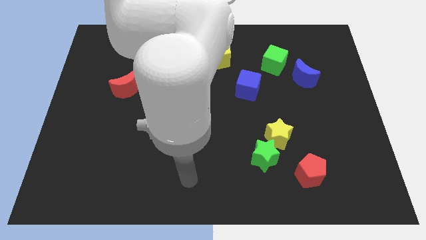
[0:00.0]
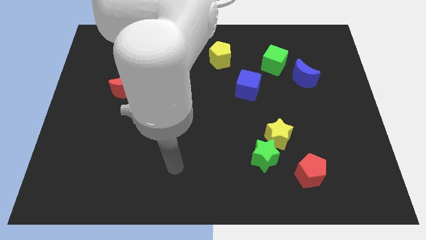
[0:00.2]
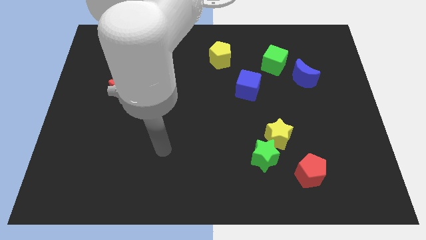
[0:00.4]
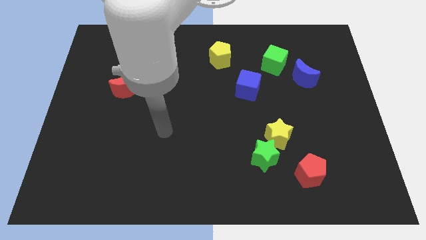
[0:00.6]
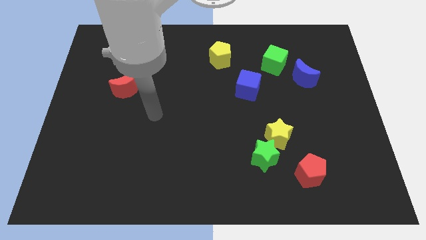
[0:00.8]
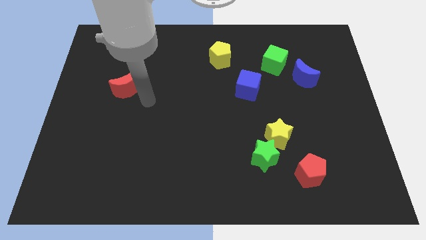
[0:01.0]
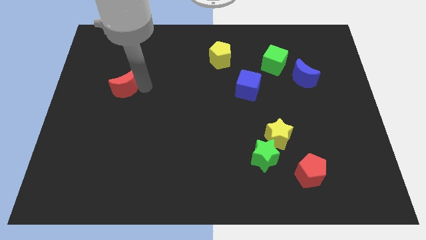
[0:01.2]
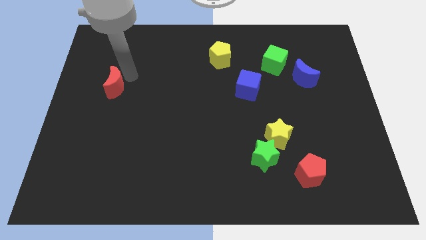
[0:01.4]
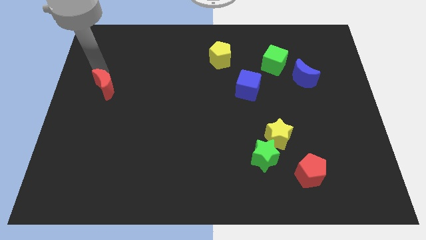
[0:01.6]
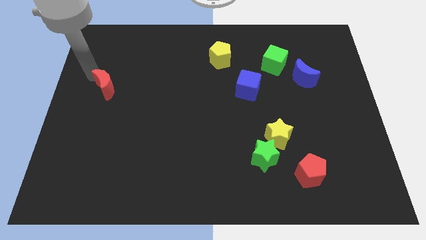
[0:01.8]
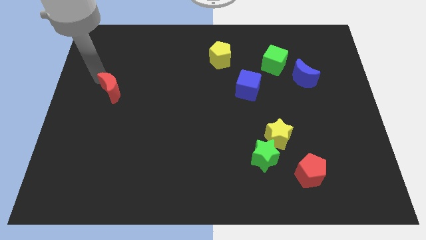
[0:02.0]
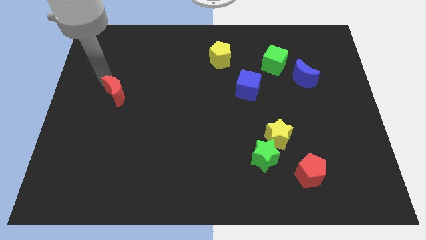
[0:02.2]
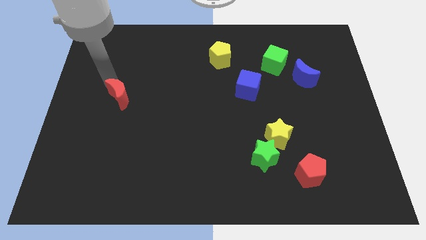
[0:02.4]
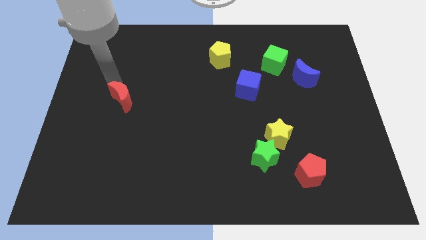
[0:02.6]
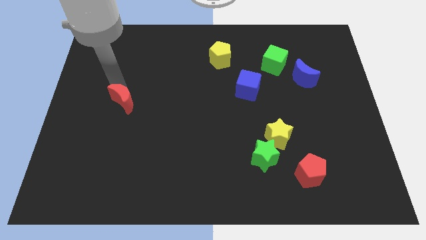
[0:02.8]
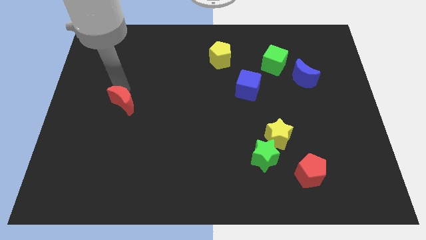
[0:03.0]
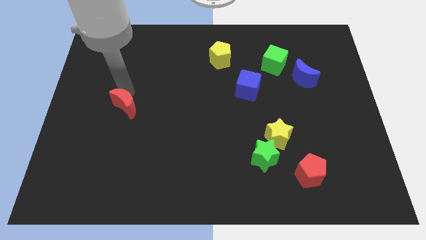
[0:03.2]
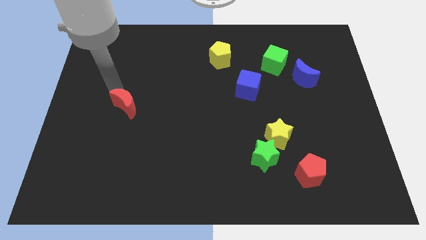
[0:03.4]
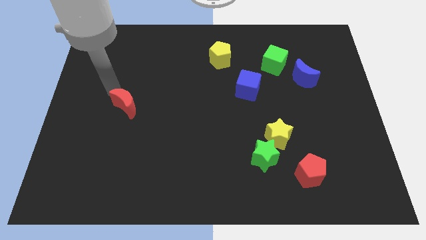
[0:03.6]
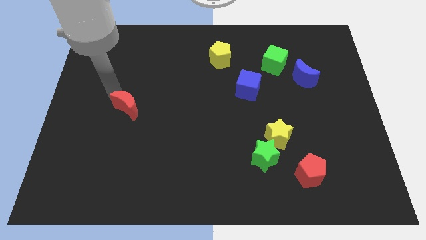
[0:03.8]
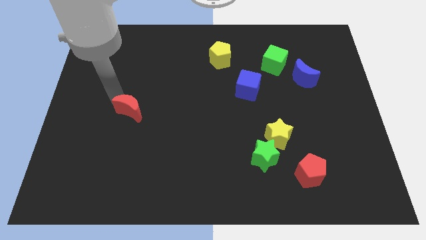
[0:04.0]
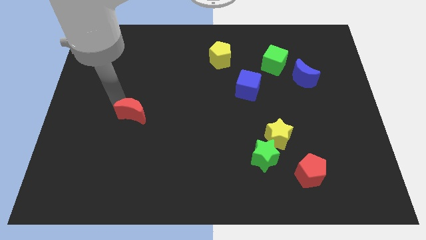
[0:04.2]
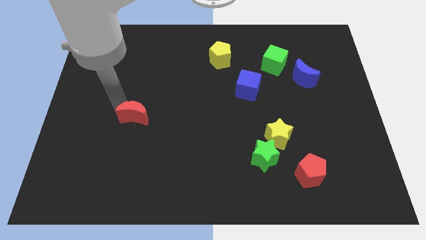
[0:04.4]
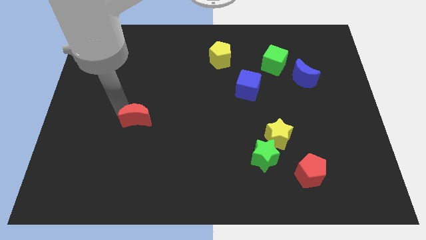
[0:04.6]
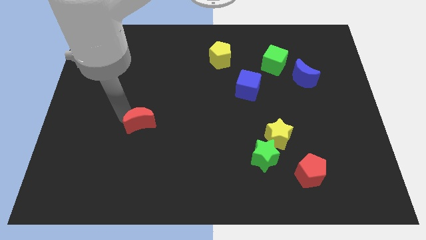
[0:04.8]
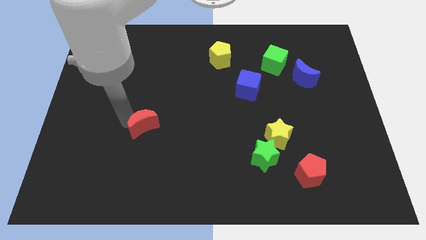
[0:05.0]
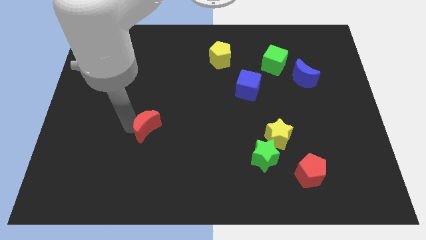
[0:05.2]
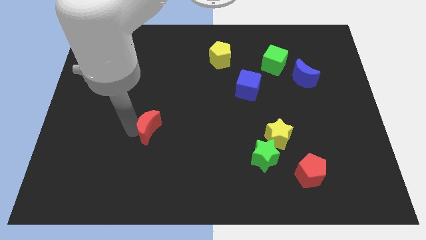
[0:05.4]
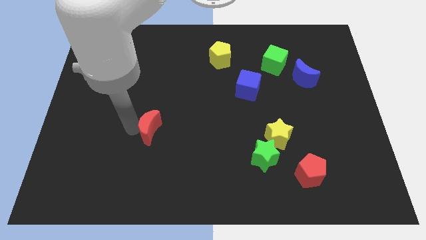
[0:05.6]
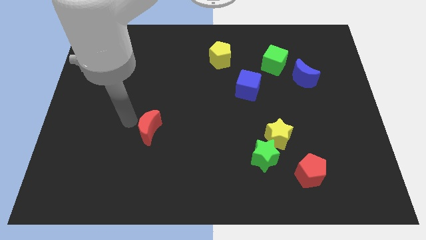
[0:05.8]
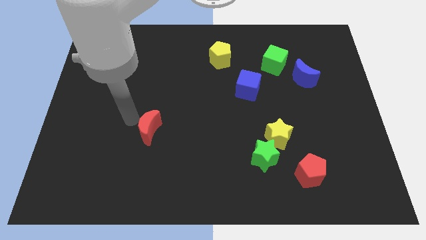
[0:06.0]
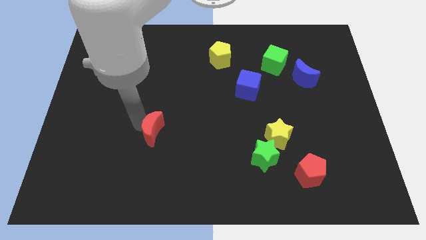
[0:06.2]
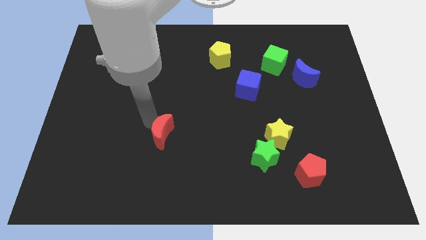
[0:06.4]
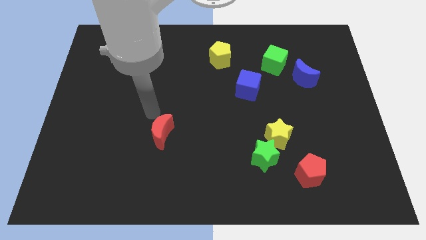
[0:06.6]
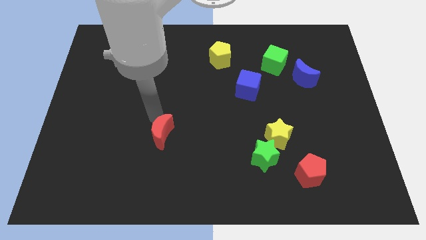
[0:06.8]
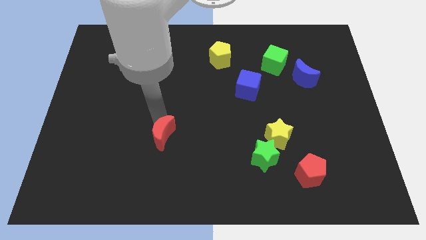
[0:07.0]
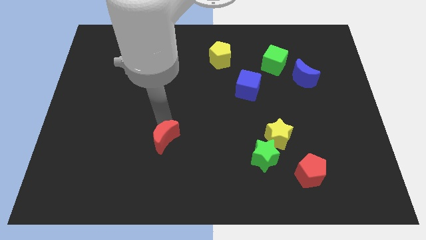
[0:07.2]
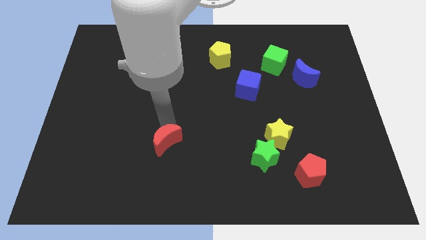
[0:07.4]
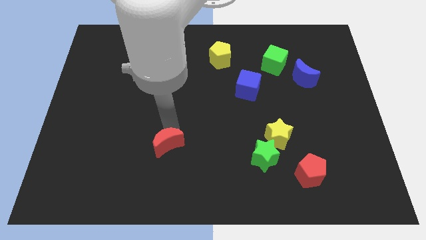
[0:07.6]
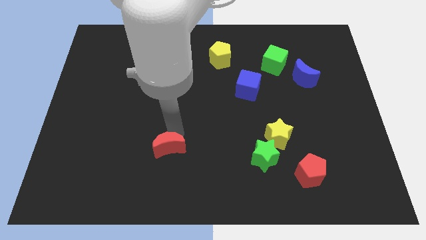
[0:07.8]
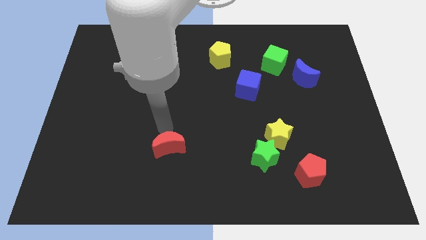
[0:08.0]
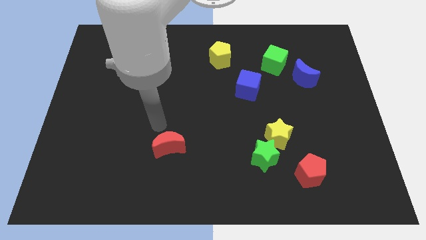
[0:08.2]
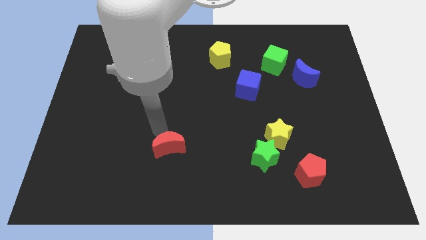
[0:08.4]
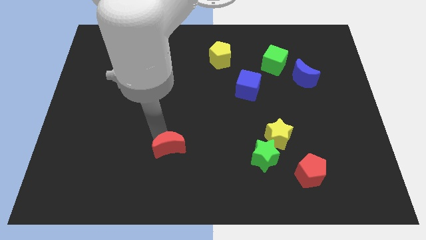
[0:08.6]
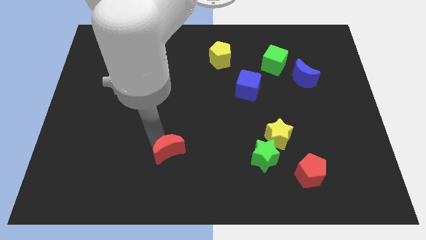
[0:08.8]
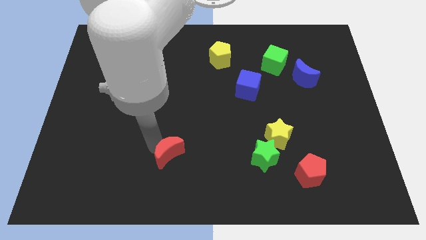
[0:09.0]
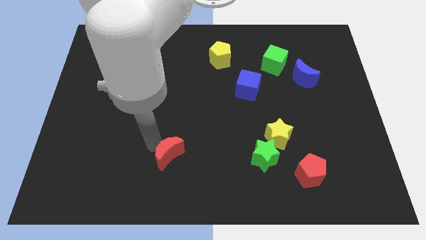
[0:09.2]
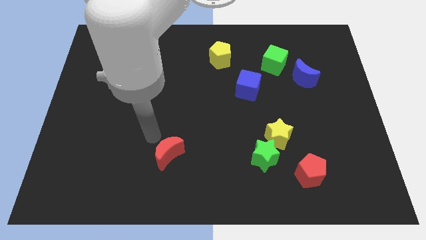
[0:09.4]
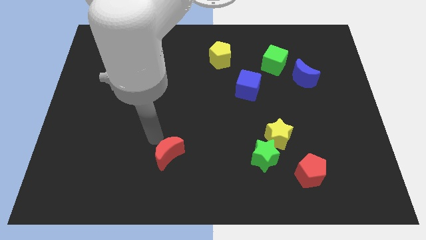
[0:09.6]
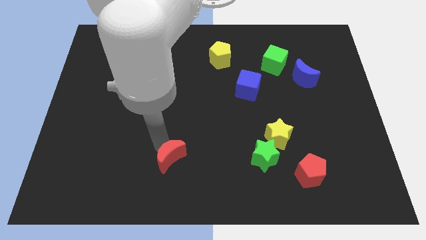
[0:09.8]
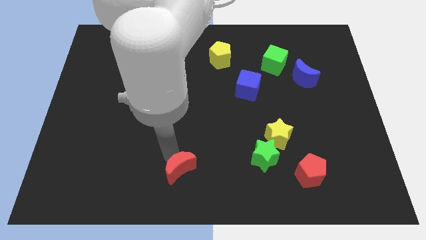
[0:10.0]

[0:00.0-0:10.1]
push the red moon to the bottom

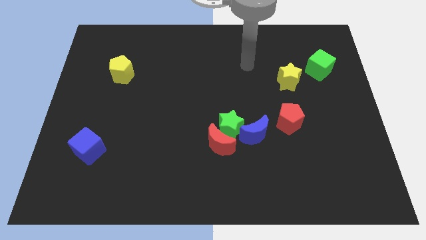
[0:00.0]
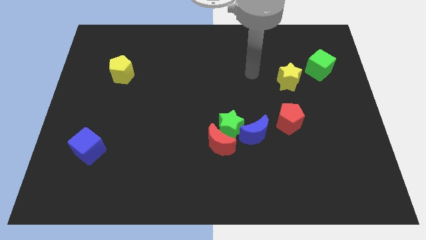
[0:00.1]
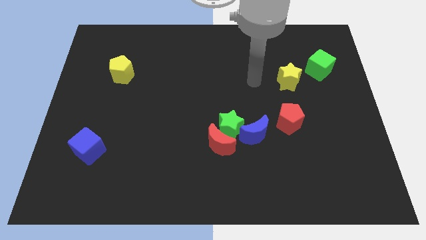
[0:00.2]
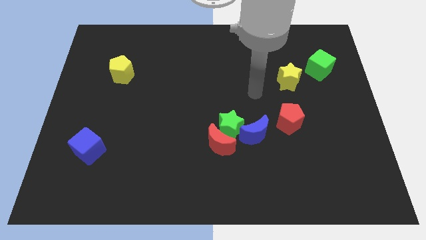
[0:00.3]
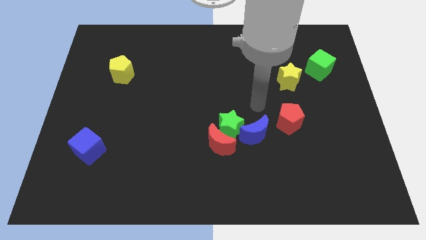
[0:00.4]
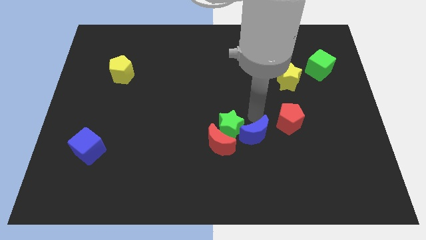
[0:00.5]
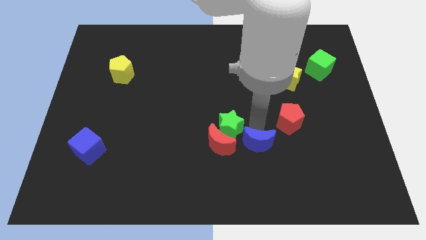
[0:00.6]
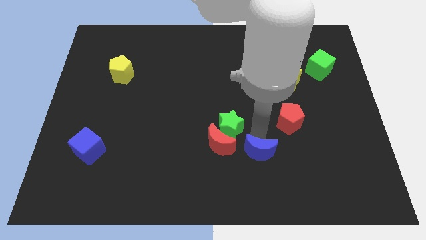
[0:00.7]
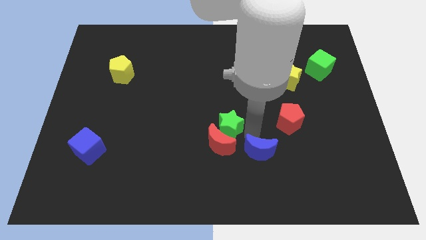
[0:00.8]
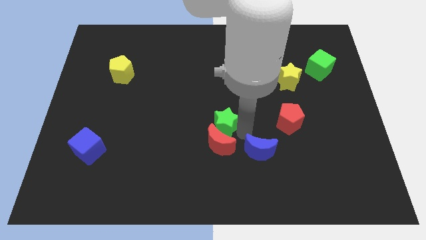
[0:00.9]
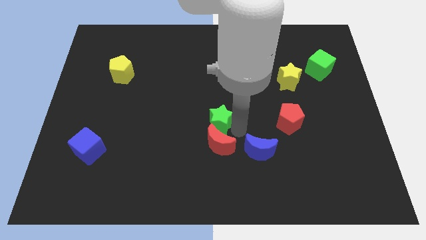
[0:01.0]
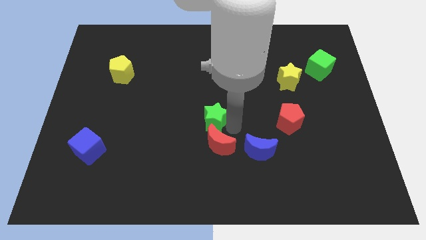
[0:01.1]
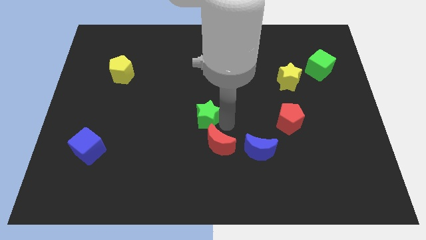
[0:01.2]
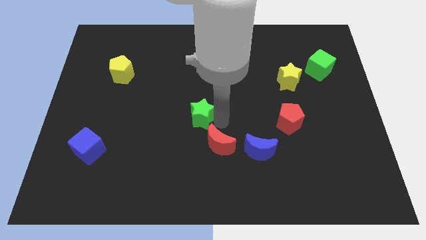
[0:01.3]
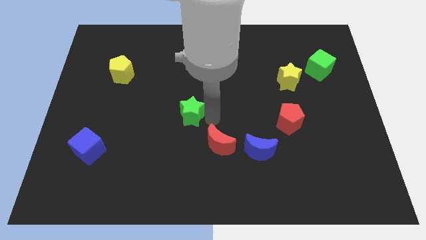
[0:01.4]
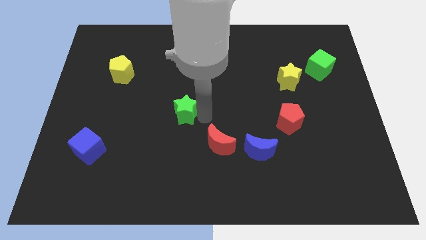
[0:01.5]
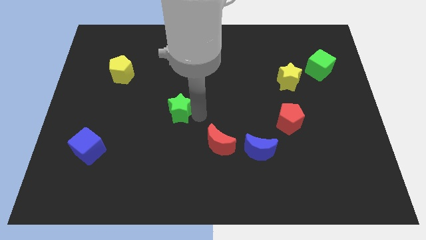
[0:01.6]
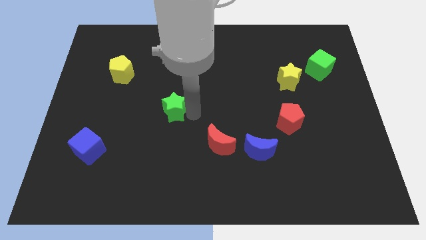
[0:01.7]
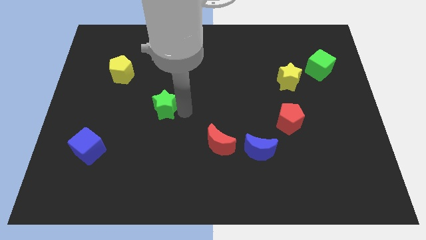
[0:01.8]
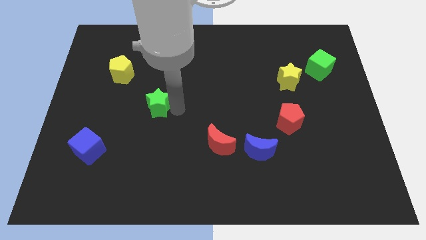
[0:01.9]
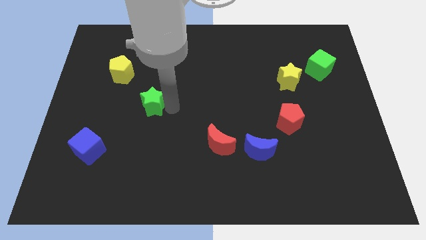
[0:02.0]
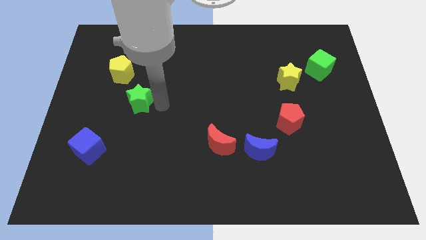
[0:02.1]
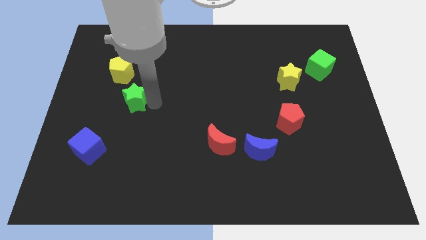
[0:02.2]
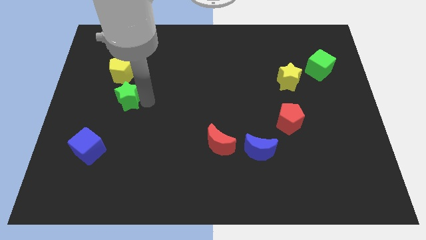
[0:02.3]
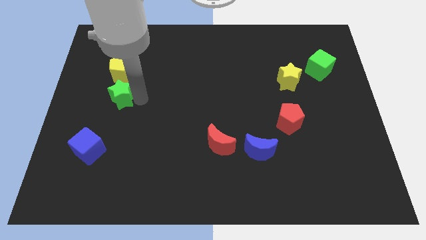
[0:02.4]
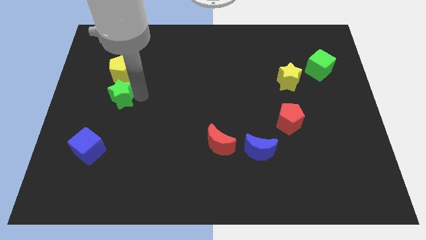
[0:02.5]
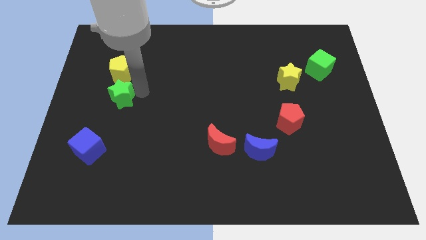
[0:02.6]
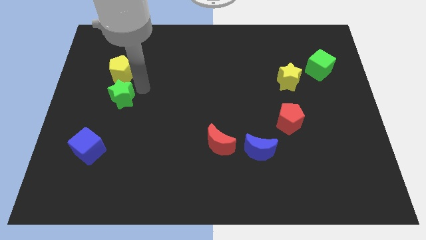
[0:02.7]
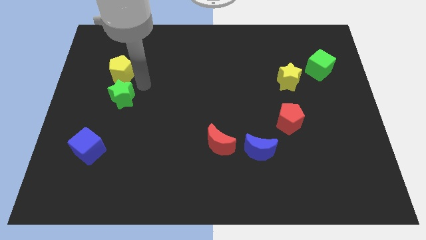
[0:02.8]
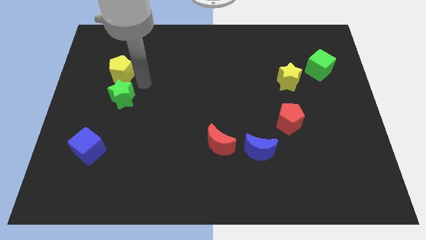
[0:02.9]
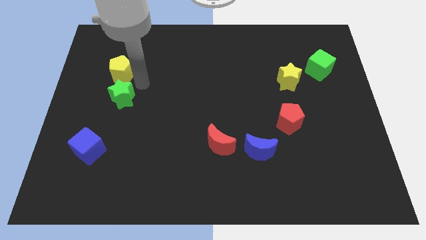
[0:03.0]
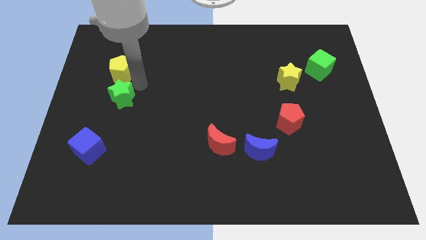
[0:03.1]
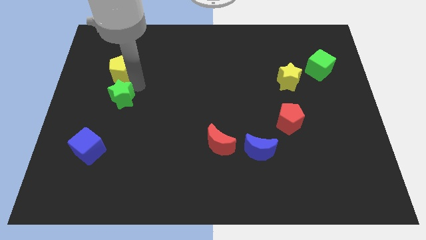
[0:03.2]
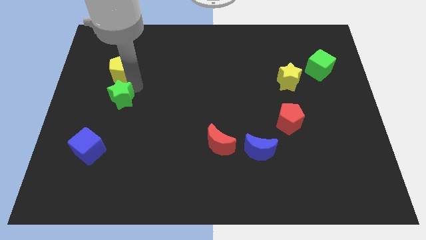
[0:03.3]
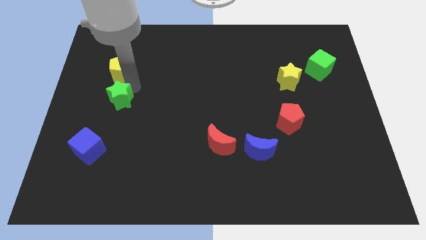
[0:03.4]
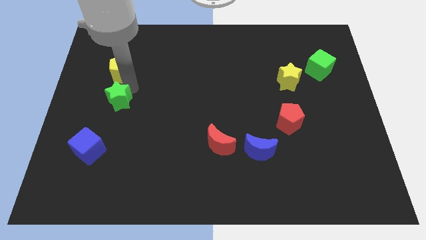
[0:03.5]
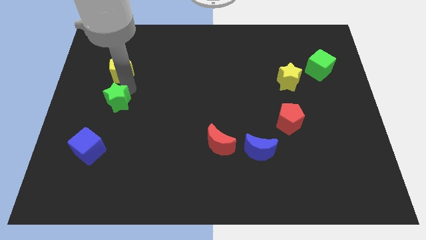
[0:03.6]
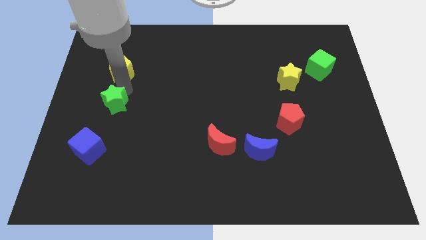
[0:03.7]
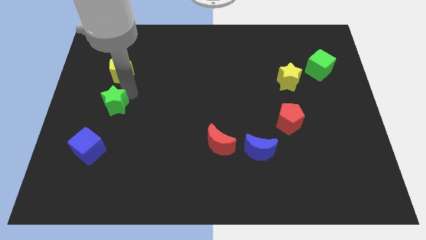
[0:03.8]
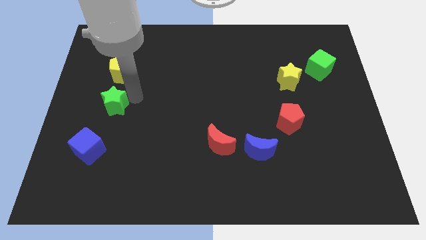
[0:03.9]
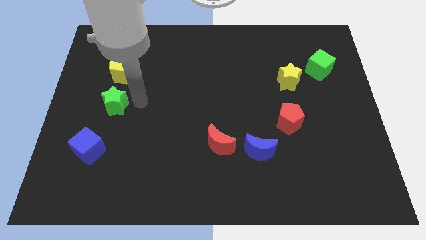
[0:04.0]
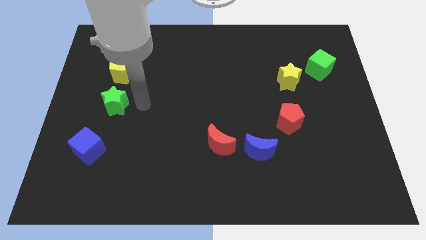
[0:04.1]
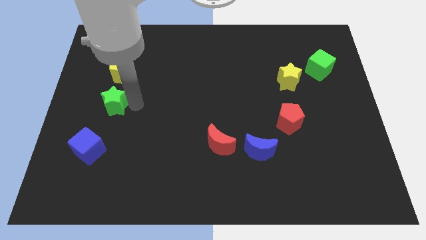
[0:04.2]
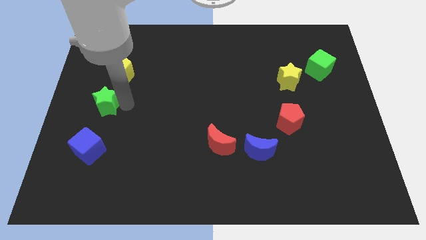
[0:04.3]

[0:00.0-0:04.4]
push the green star to the left side of the board
